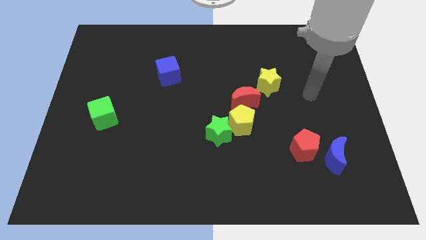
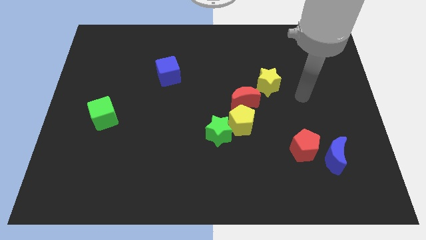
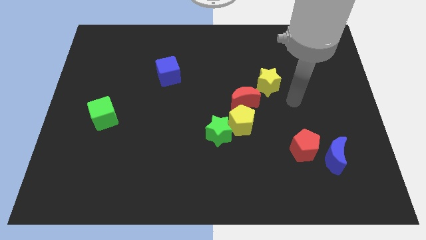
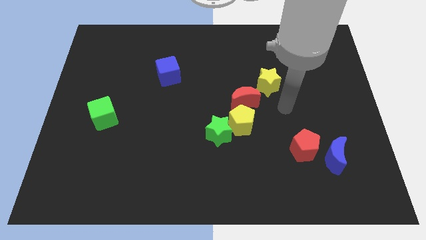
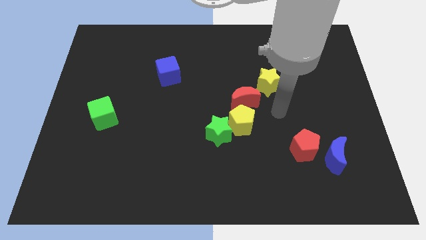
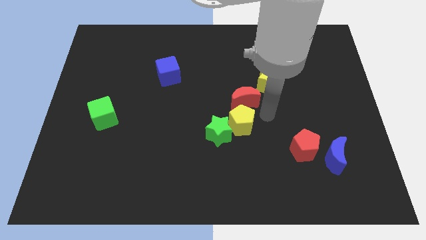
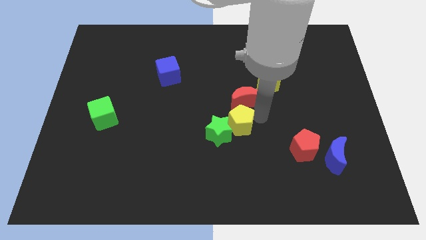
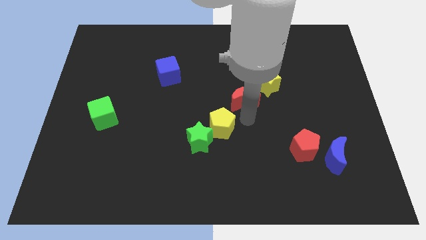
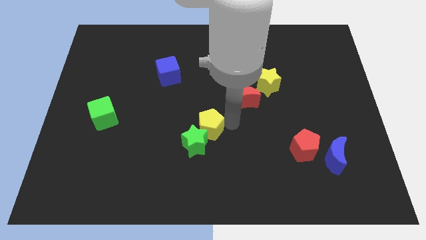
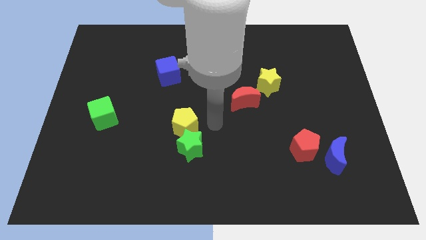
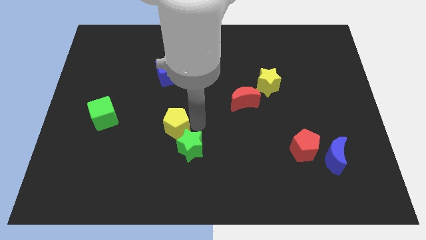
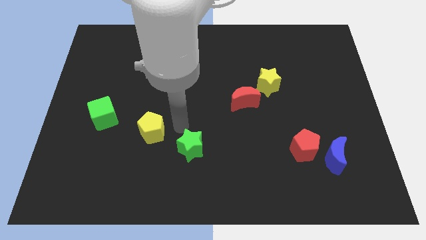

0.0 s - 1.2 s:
move the green star away from the yellow pentagon

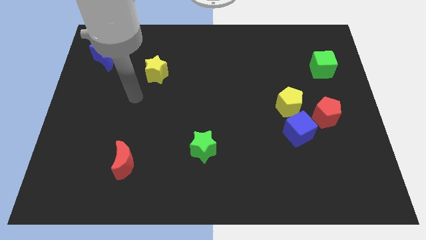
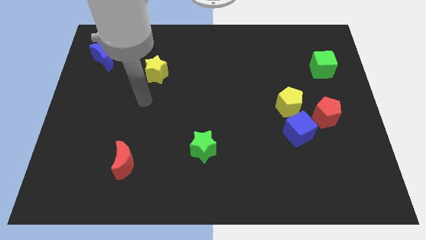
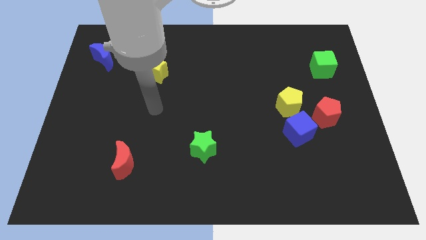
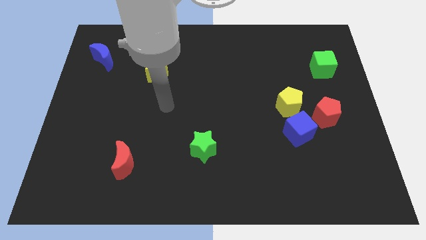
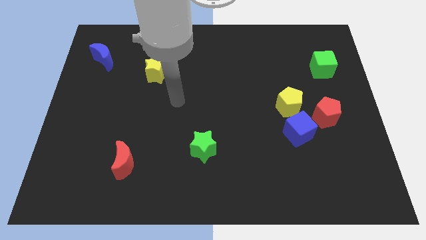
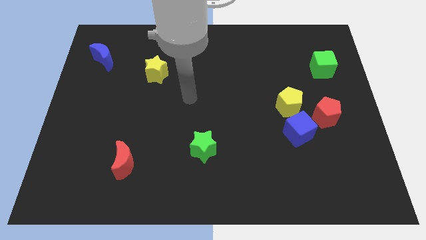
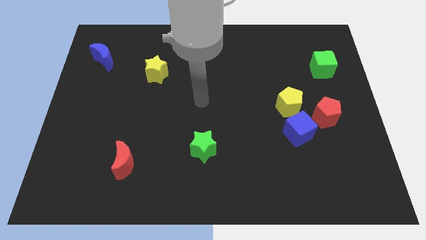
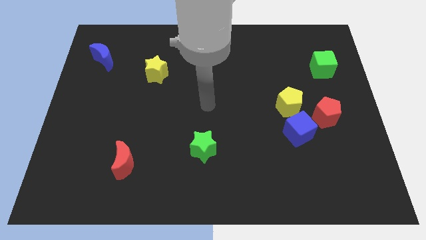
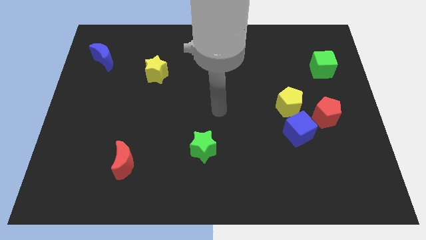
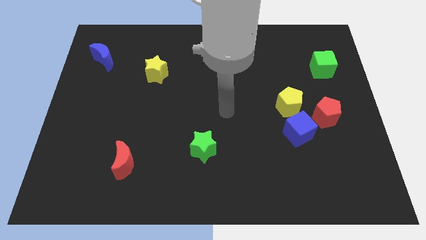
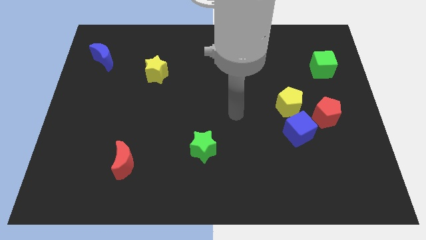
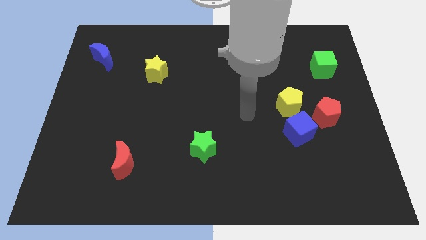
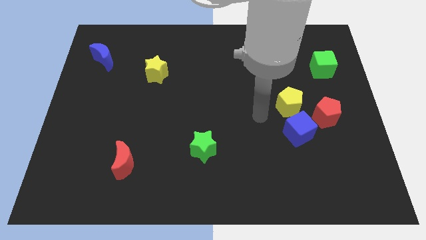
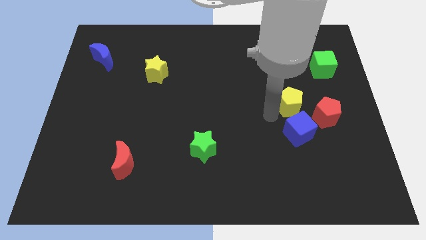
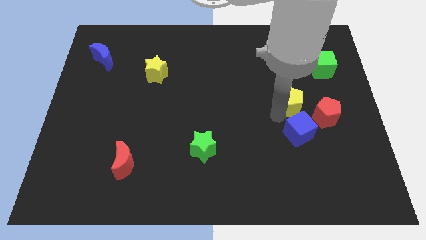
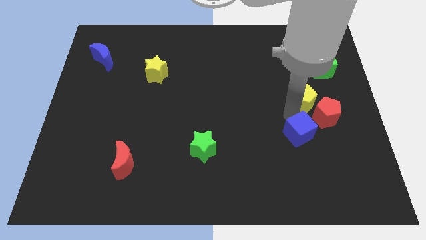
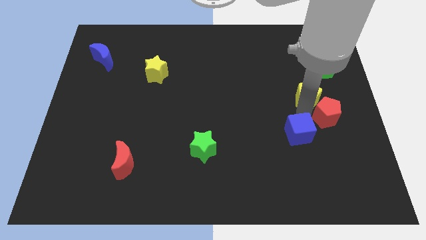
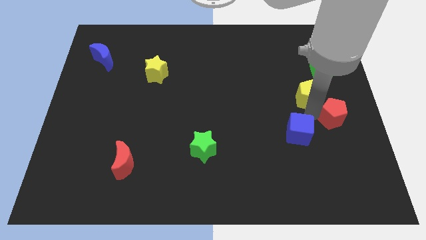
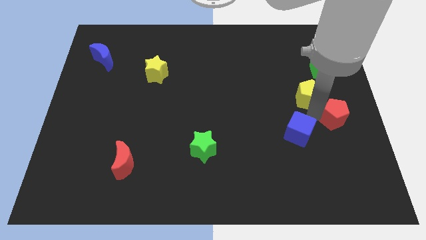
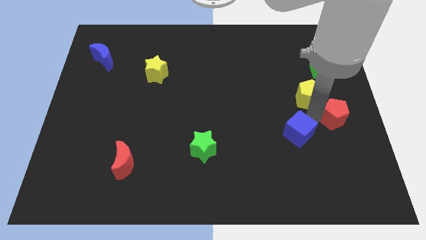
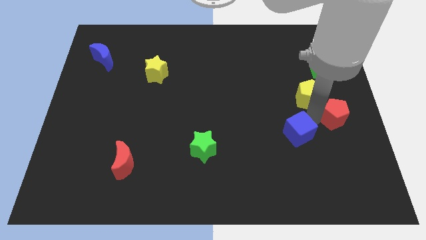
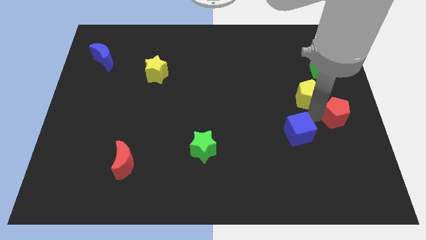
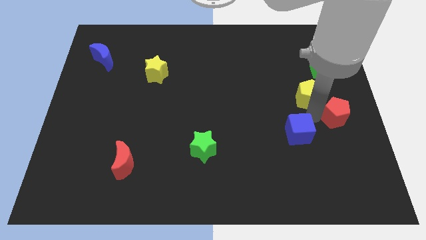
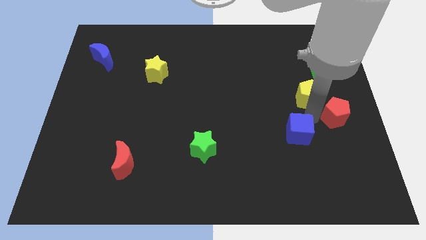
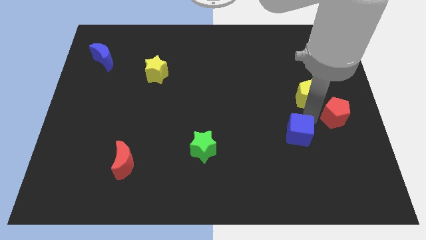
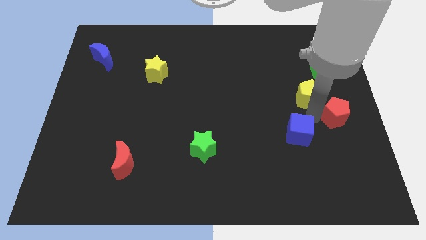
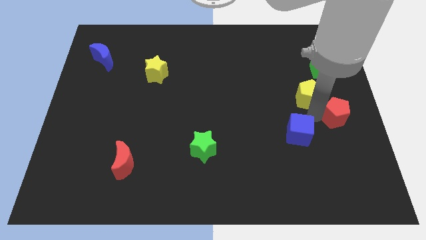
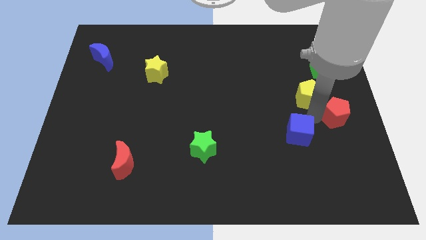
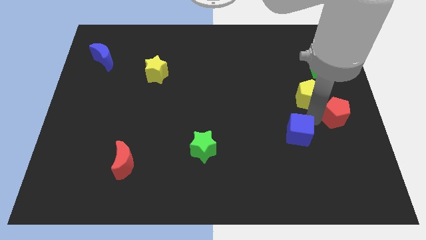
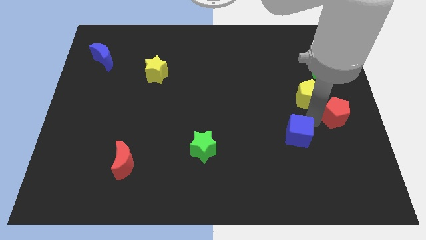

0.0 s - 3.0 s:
separate the blue cube from the yellow pentagon and red pentagon

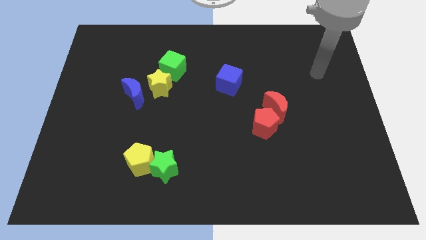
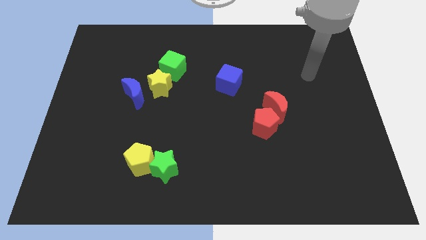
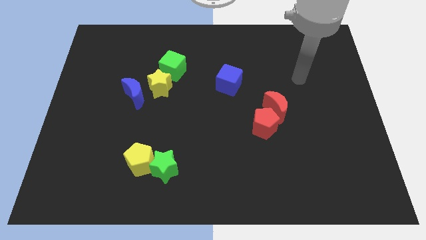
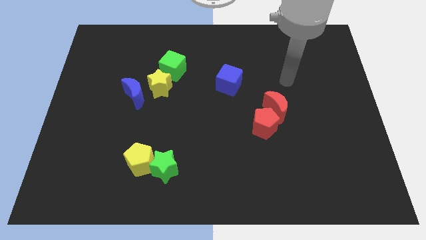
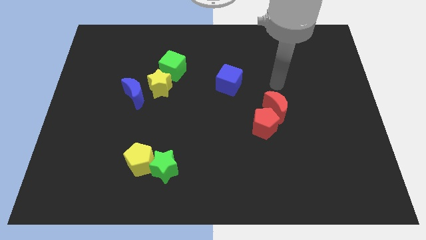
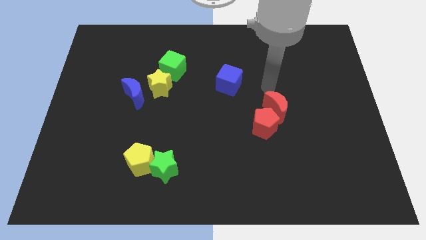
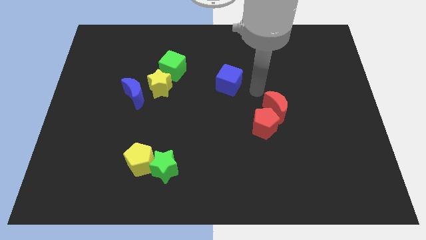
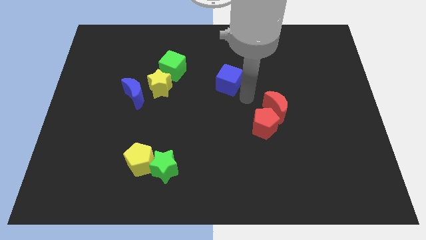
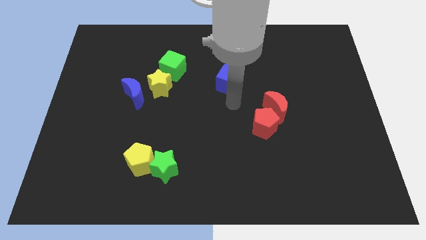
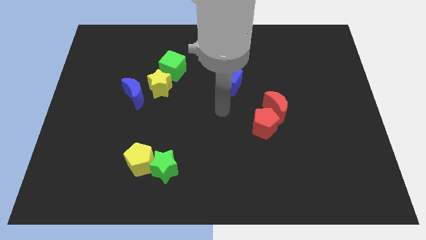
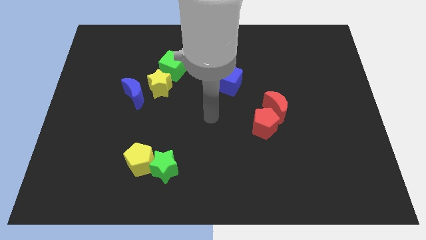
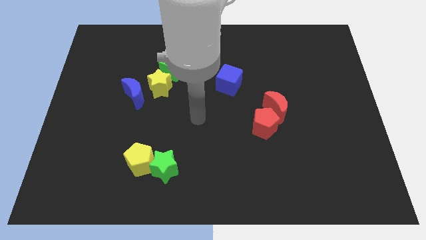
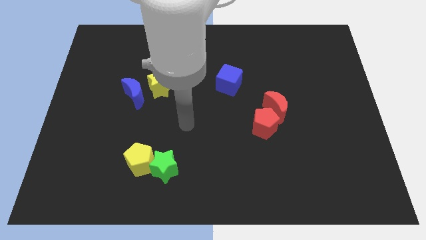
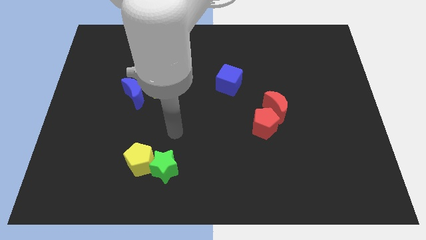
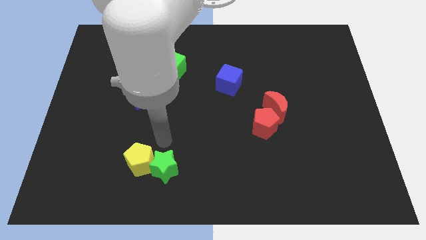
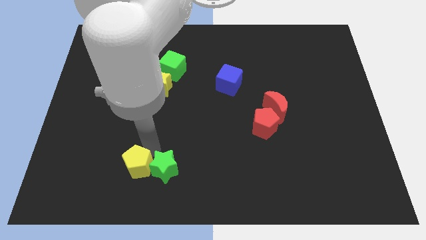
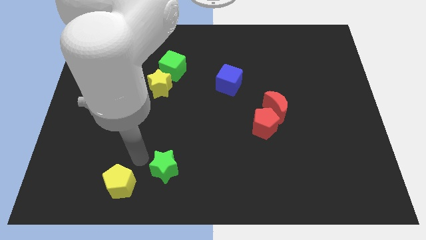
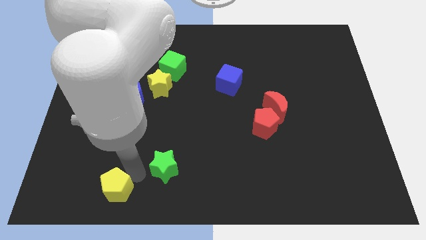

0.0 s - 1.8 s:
separate the green star from the yellow pentagon

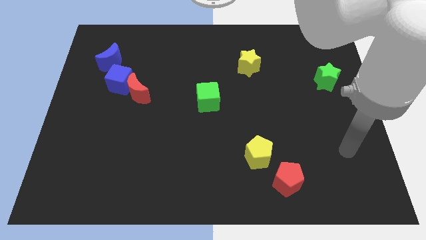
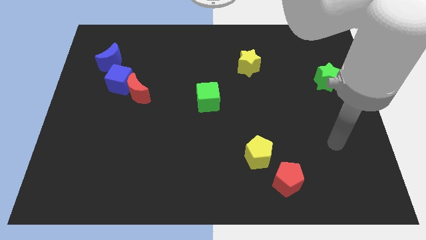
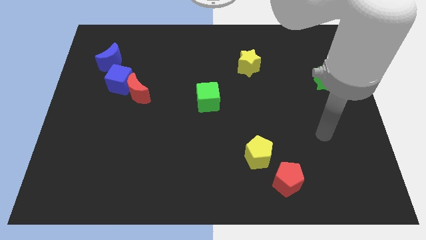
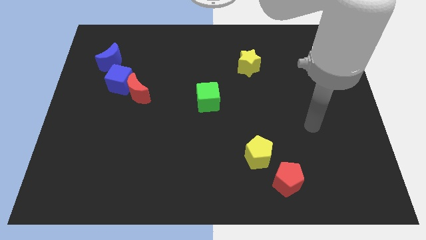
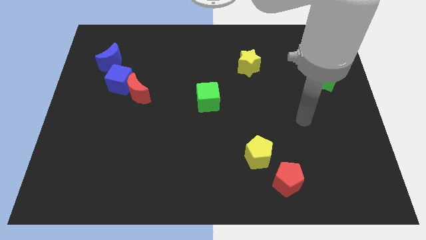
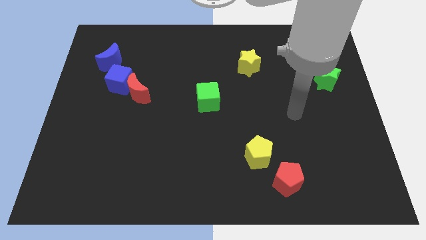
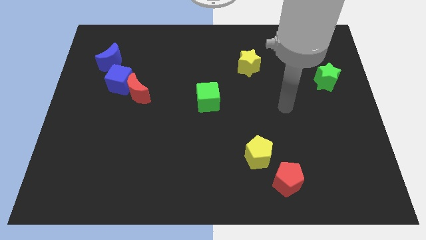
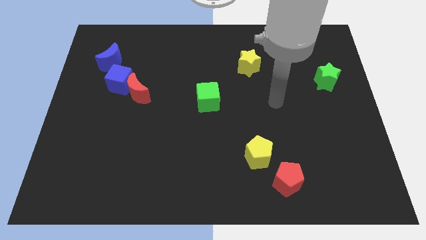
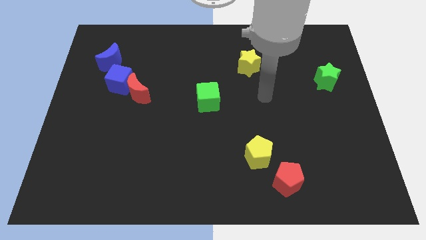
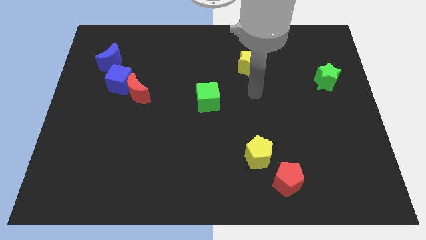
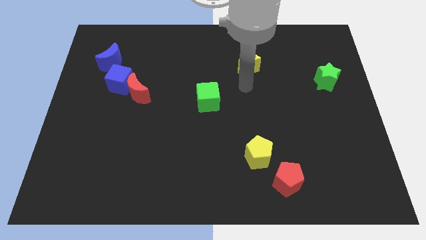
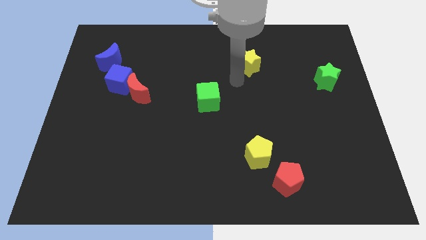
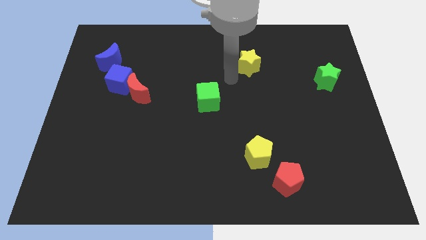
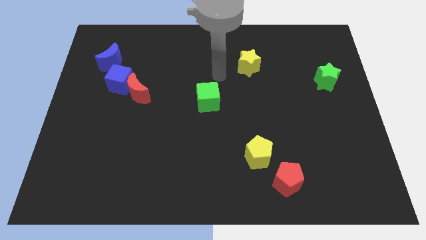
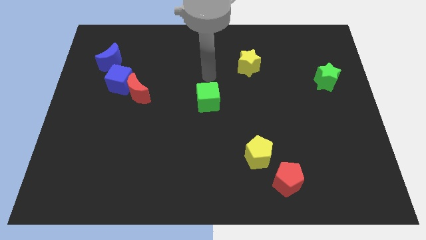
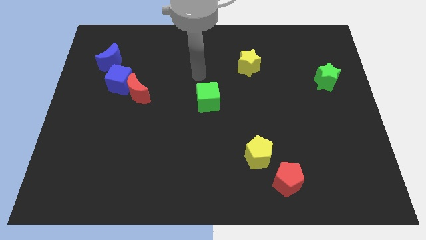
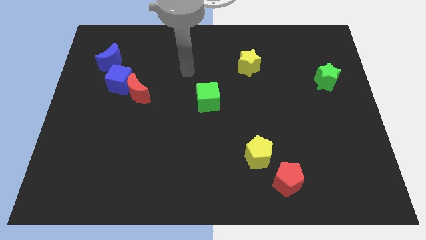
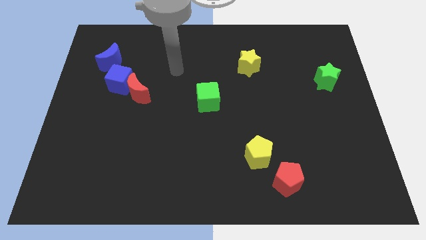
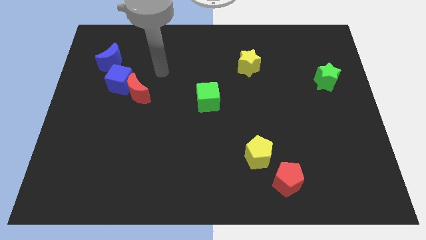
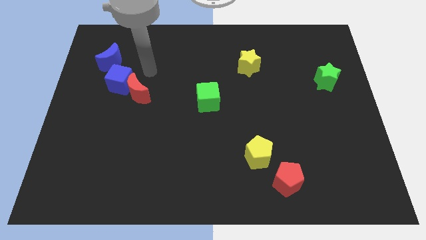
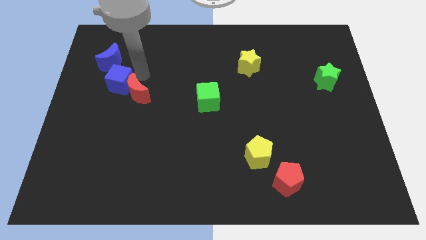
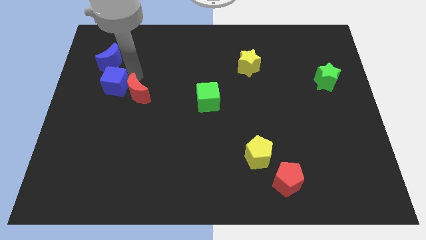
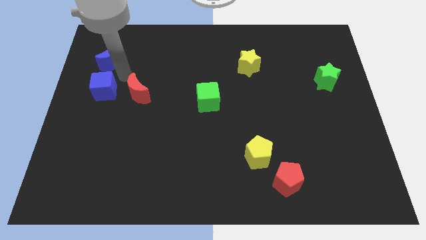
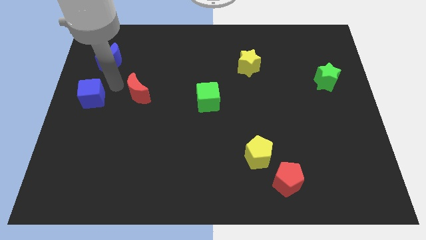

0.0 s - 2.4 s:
pull the red moon apart from the blue cube

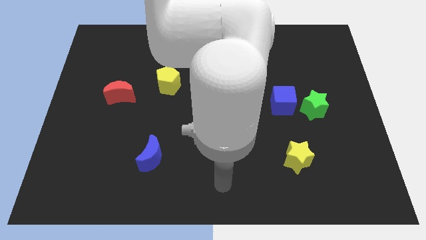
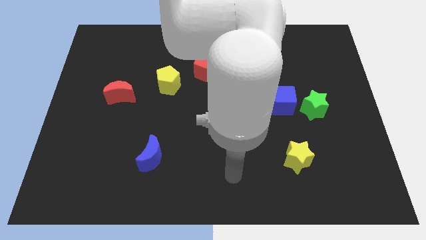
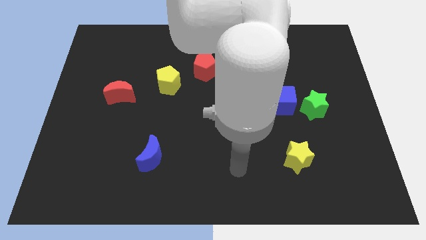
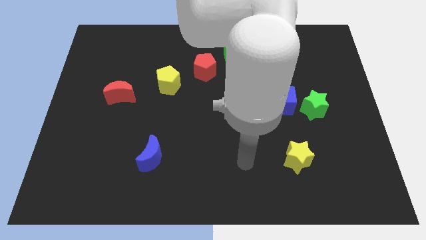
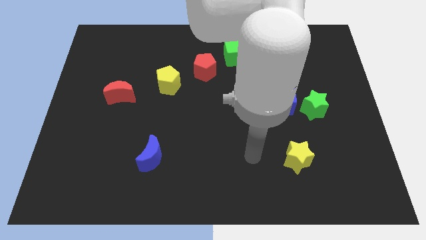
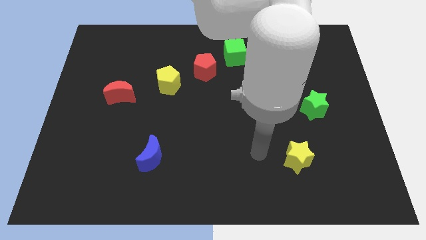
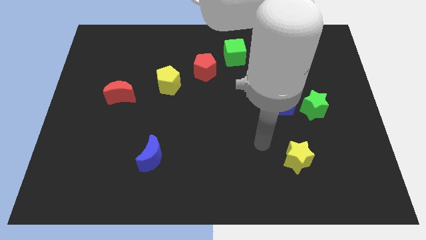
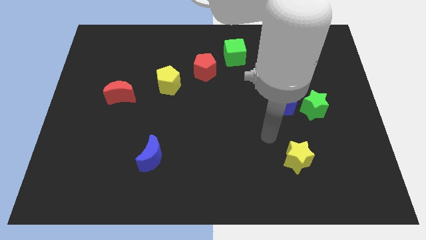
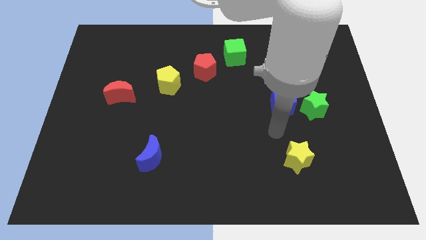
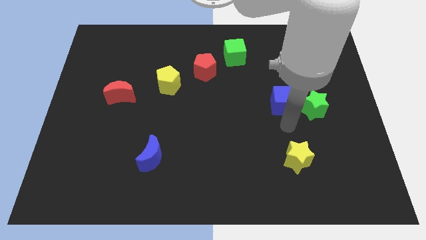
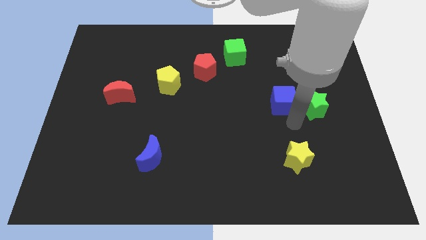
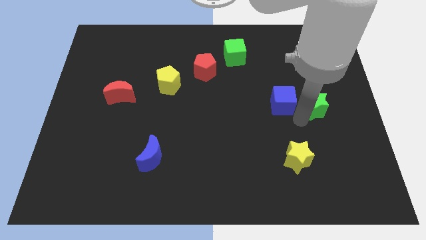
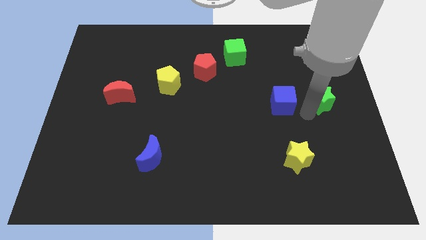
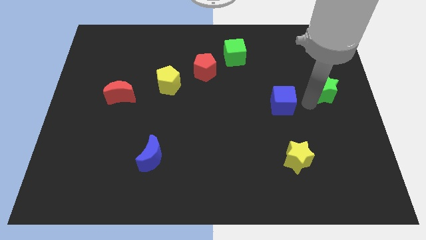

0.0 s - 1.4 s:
separate the blue cube from the green star
